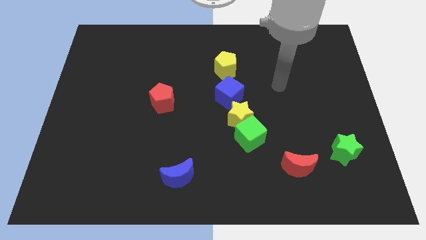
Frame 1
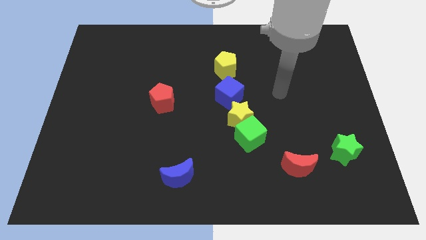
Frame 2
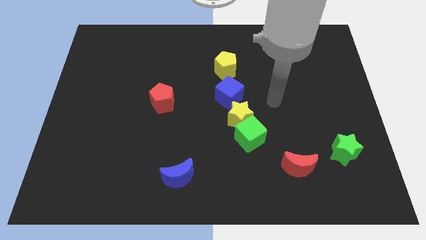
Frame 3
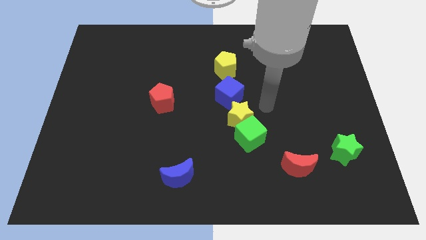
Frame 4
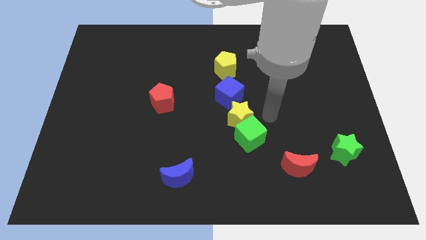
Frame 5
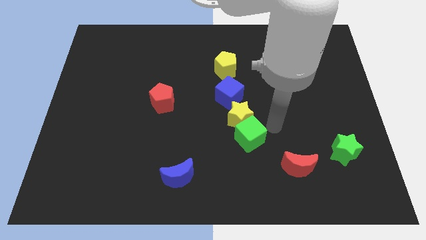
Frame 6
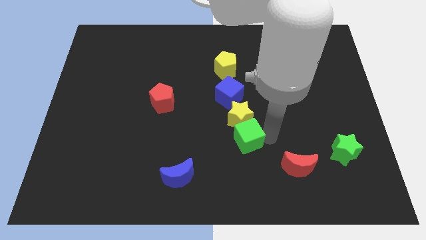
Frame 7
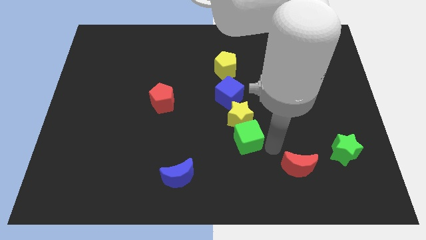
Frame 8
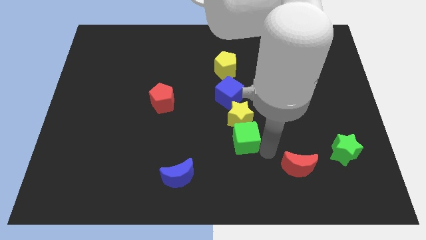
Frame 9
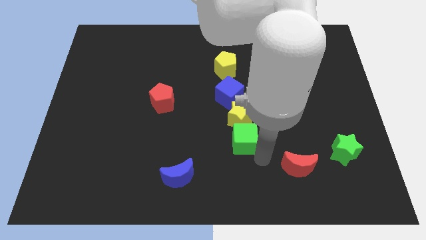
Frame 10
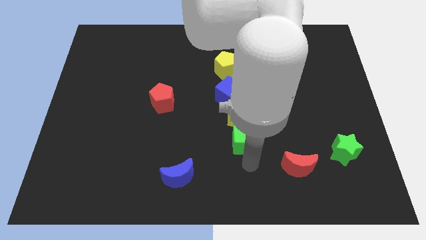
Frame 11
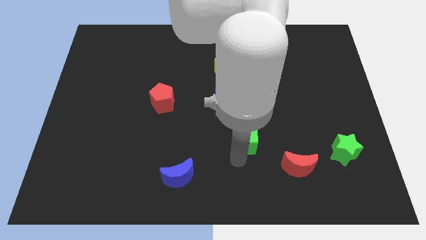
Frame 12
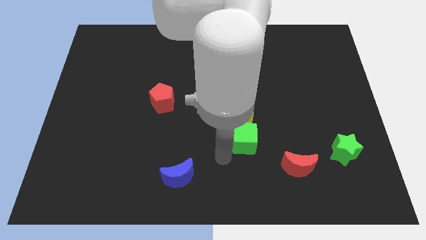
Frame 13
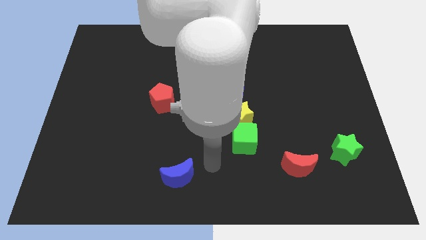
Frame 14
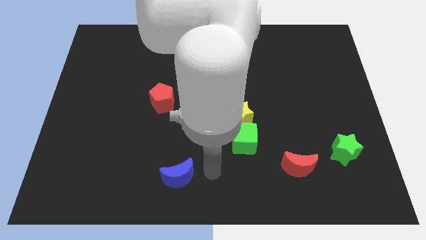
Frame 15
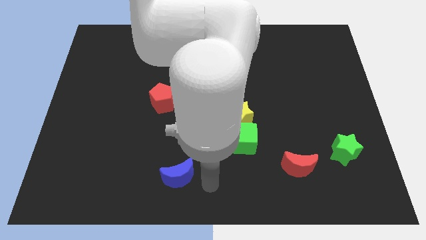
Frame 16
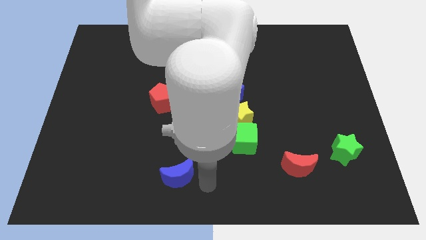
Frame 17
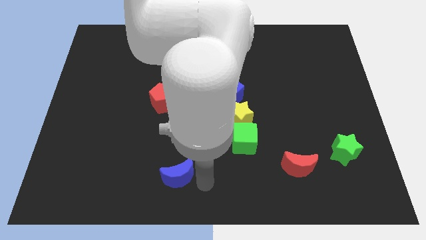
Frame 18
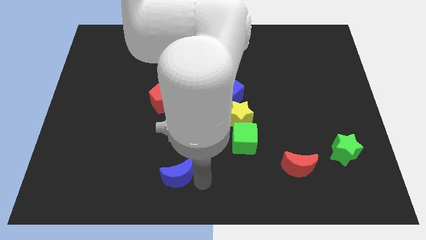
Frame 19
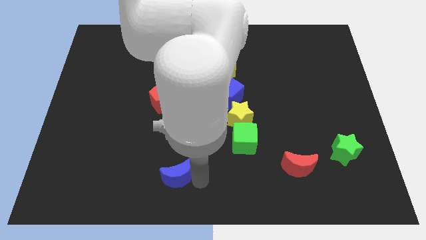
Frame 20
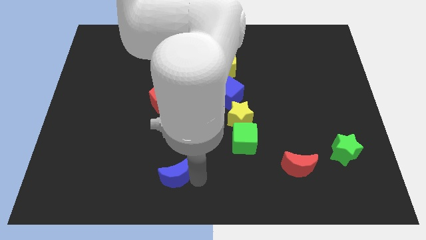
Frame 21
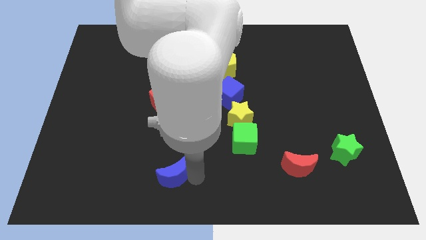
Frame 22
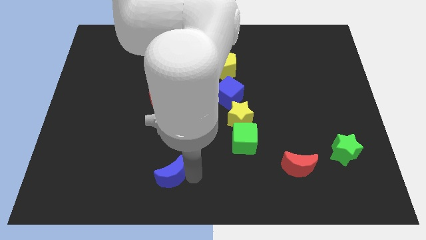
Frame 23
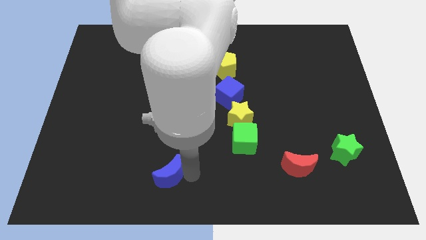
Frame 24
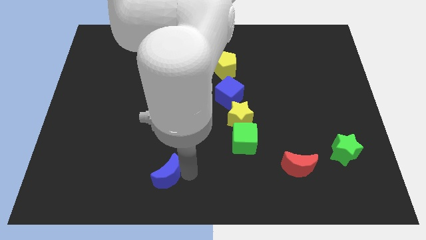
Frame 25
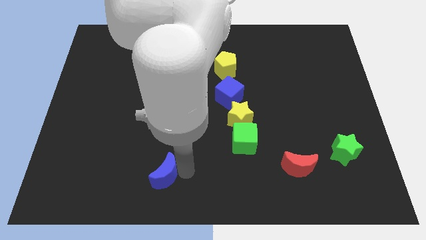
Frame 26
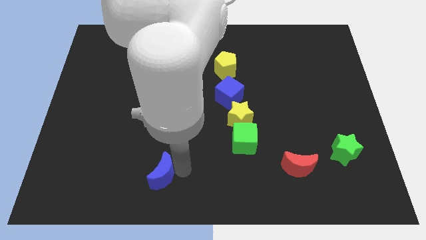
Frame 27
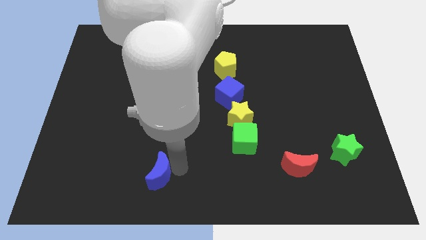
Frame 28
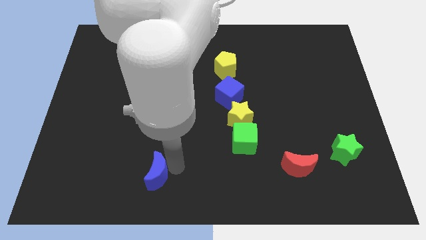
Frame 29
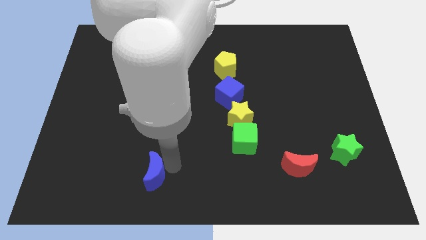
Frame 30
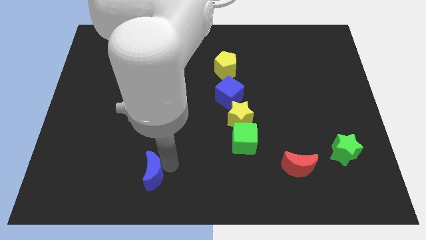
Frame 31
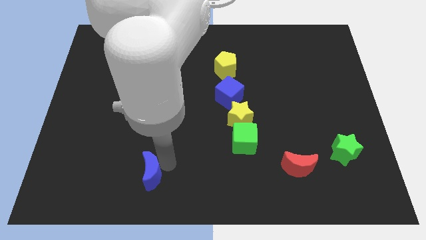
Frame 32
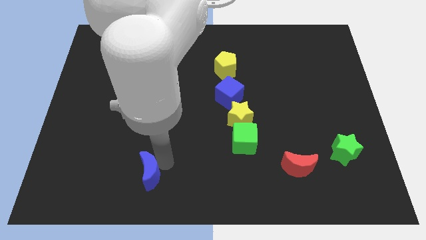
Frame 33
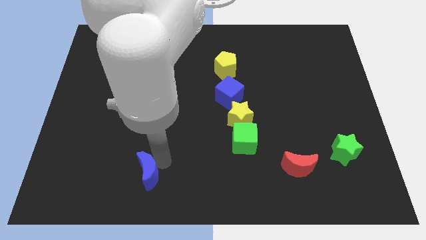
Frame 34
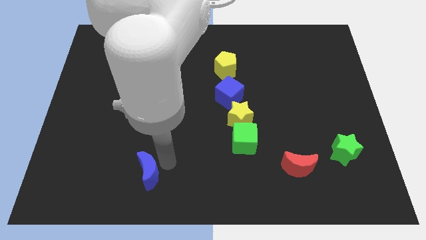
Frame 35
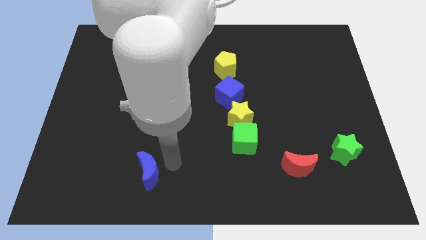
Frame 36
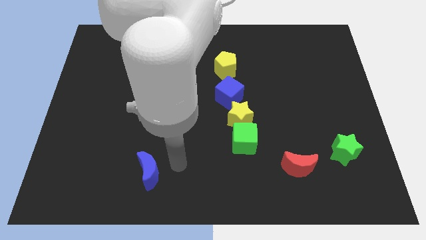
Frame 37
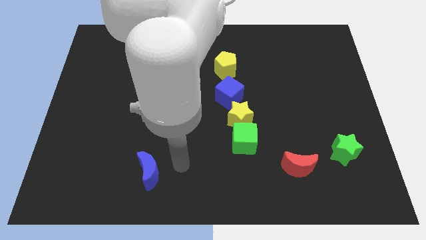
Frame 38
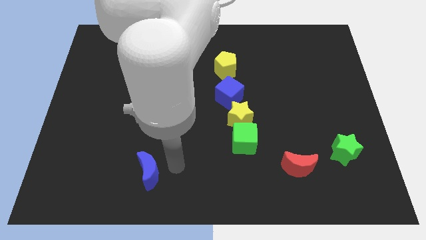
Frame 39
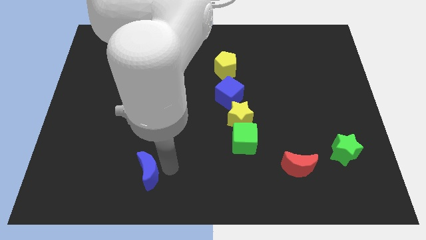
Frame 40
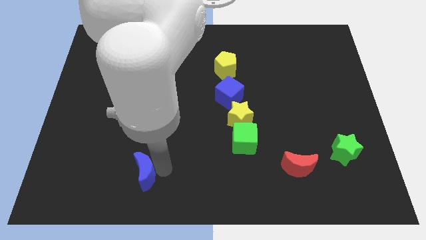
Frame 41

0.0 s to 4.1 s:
push the blue moon slightly to the left

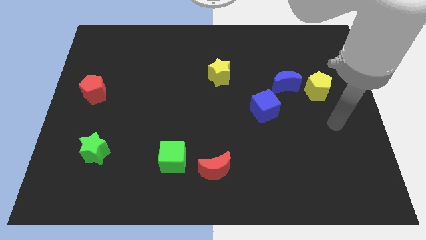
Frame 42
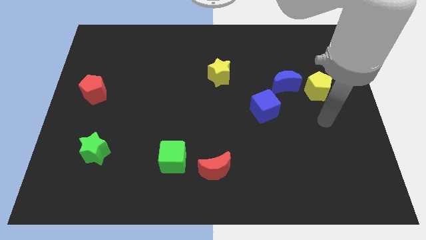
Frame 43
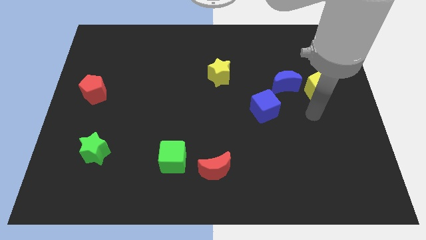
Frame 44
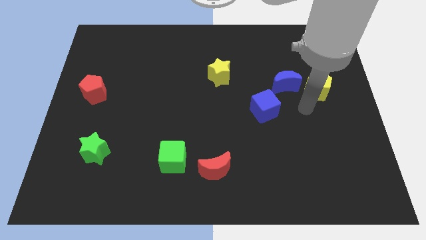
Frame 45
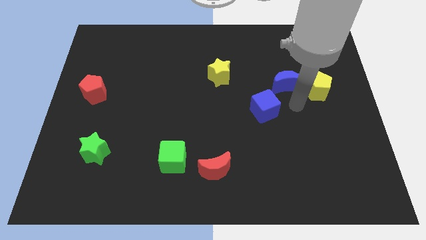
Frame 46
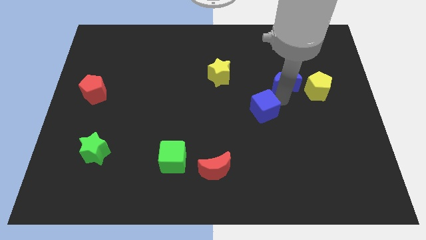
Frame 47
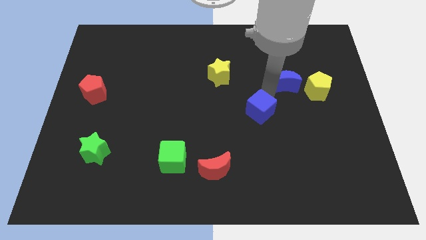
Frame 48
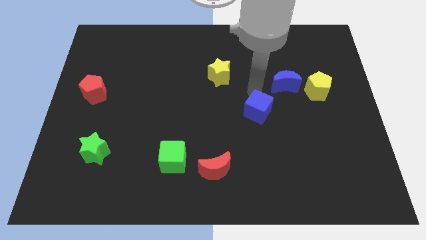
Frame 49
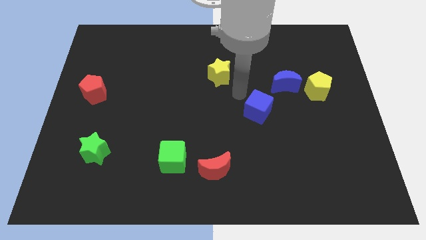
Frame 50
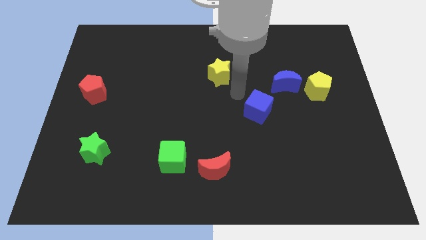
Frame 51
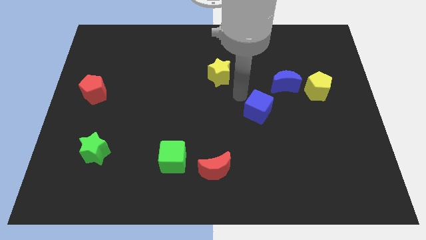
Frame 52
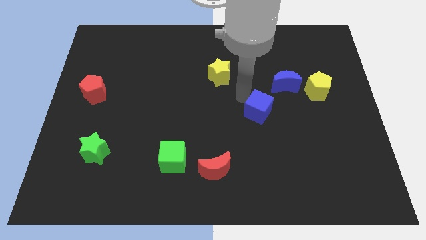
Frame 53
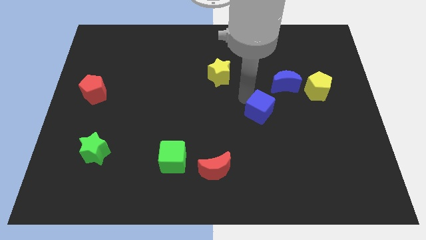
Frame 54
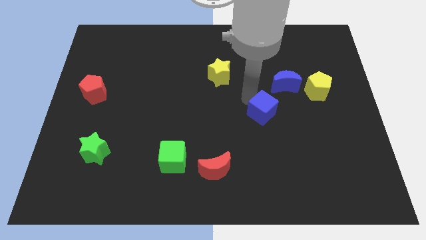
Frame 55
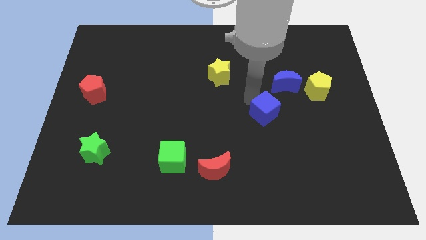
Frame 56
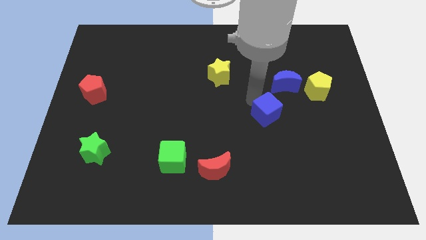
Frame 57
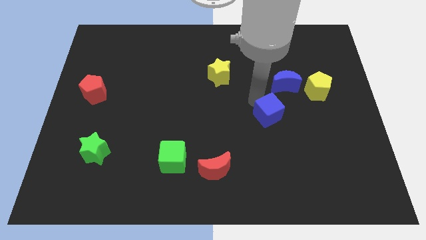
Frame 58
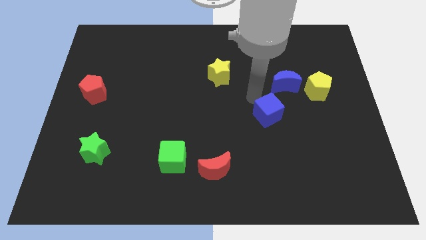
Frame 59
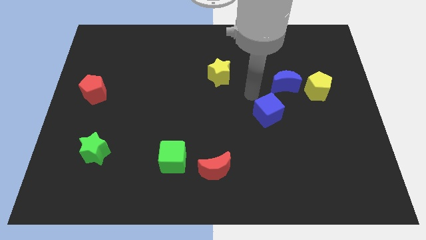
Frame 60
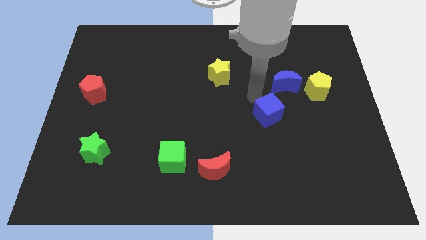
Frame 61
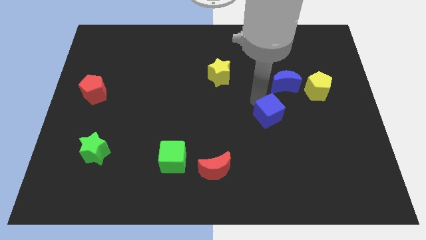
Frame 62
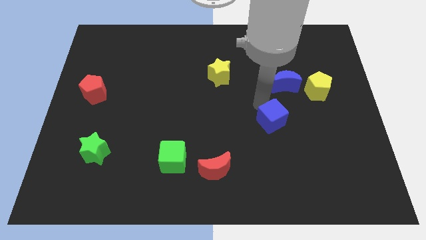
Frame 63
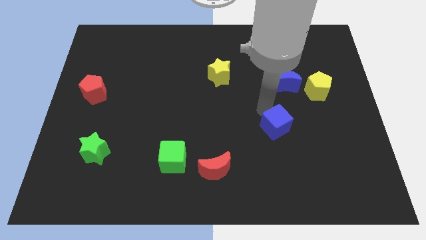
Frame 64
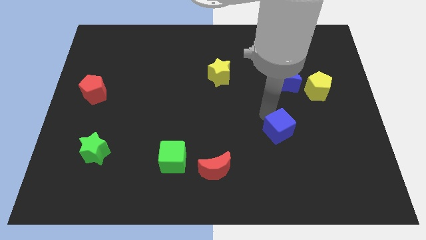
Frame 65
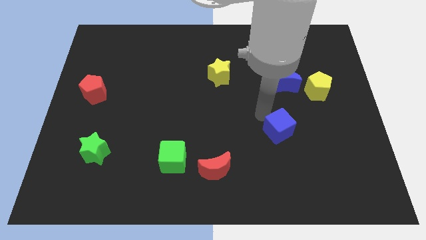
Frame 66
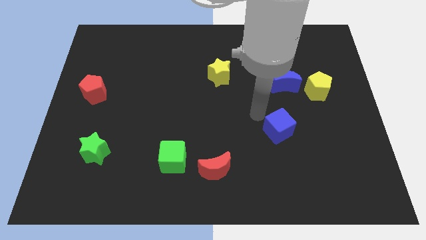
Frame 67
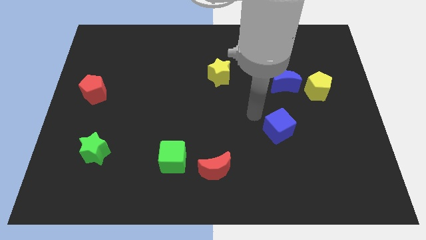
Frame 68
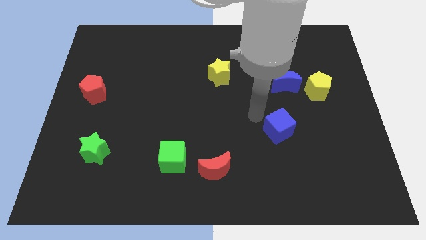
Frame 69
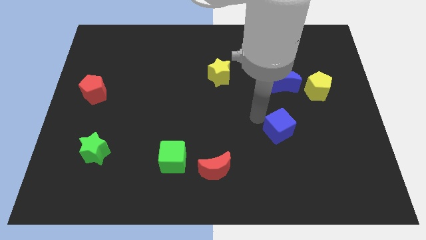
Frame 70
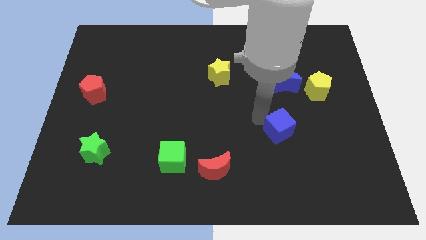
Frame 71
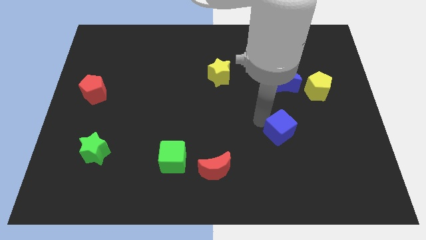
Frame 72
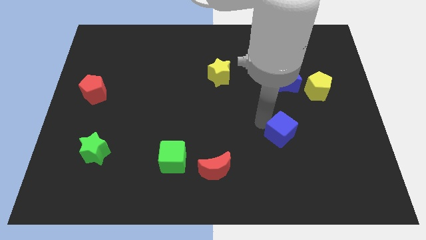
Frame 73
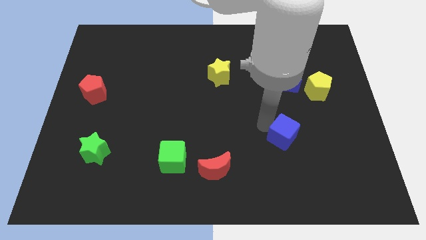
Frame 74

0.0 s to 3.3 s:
slightly move the blue cube diagonally down and right

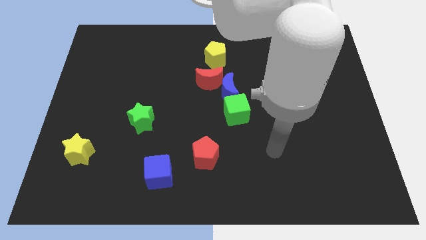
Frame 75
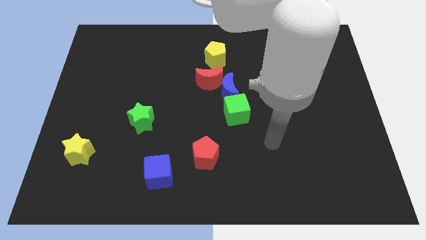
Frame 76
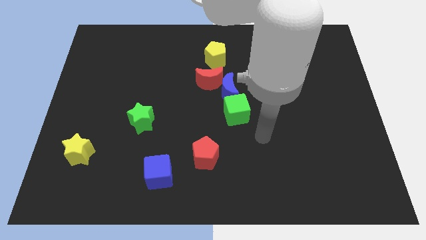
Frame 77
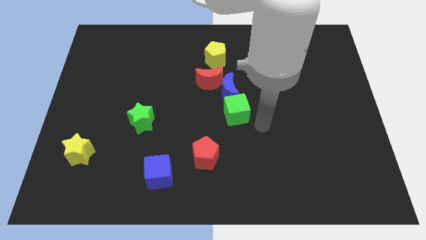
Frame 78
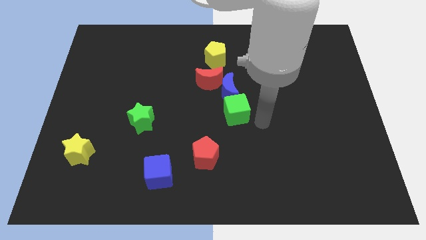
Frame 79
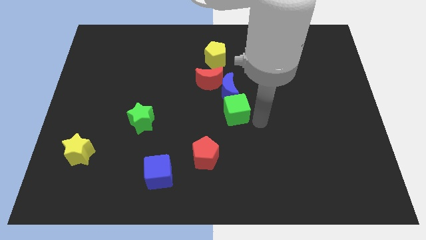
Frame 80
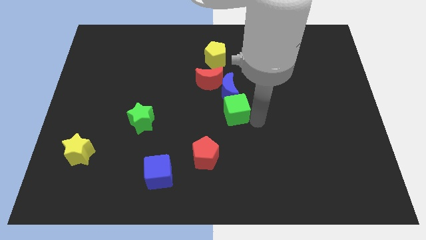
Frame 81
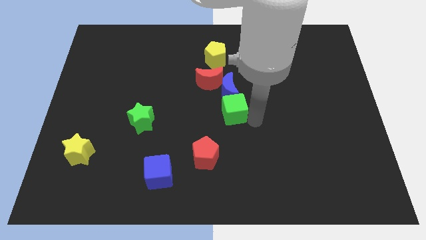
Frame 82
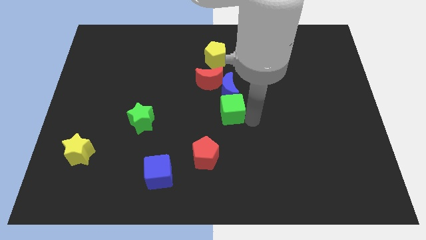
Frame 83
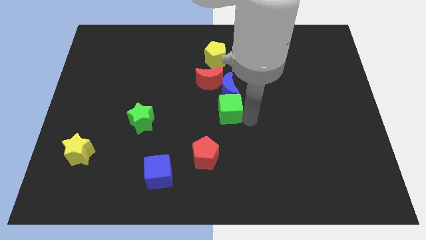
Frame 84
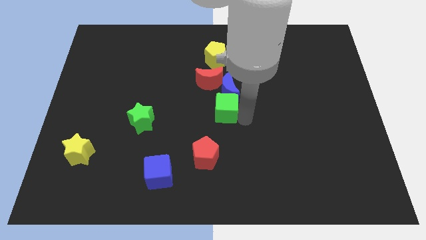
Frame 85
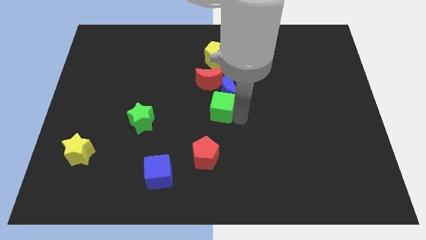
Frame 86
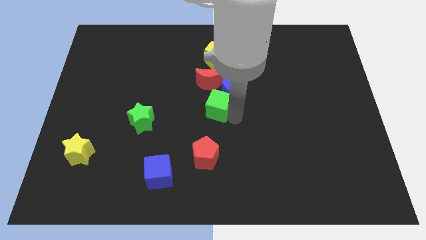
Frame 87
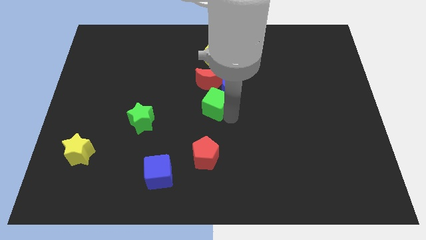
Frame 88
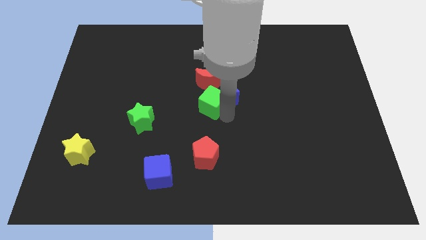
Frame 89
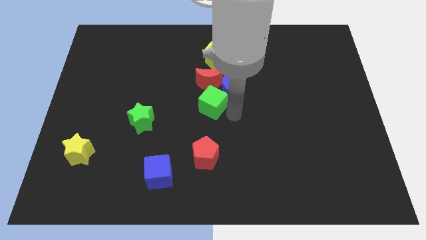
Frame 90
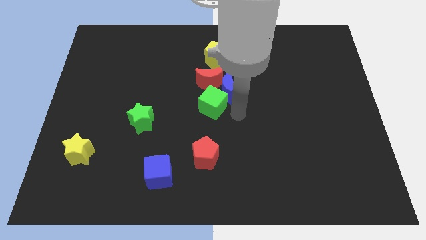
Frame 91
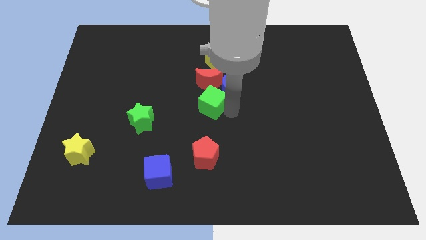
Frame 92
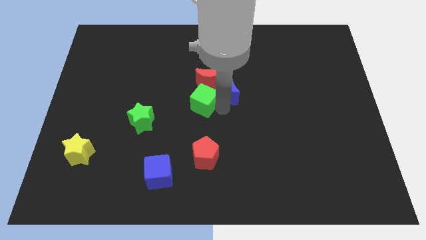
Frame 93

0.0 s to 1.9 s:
move the green cube up and left diagonally a bit
